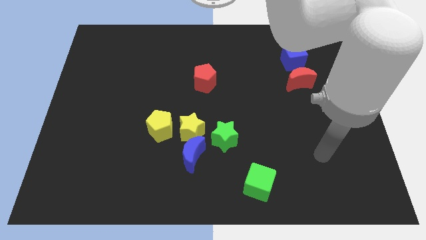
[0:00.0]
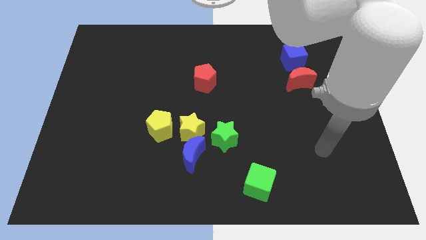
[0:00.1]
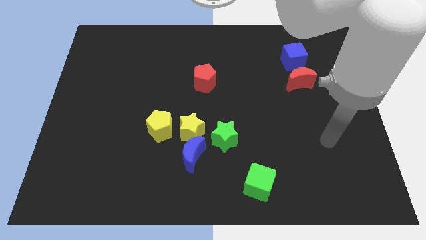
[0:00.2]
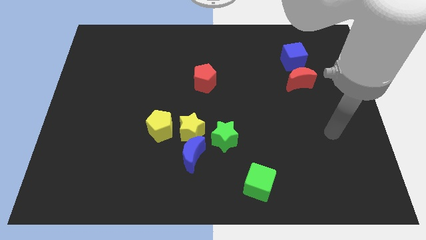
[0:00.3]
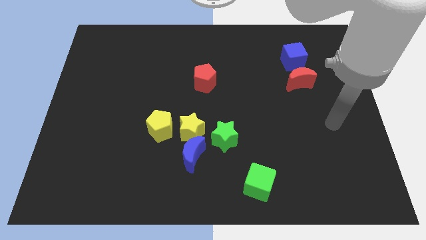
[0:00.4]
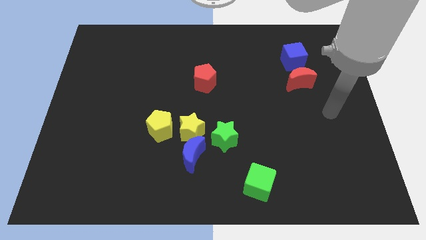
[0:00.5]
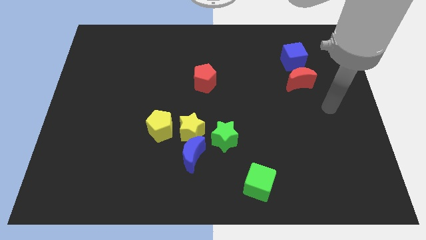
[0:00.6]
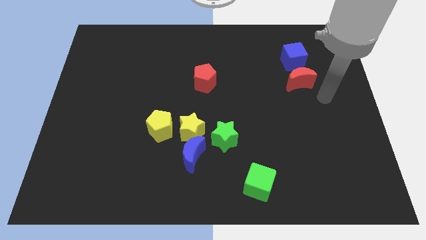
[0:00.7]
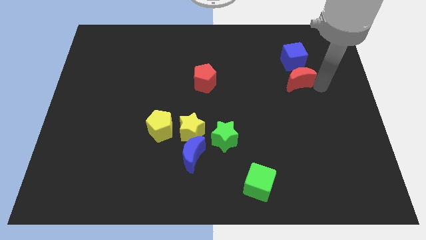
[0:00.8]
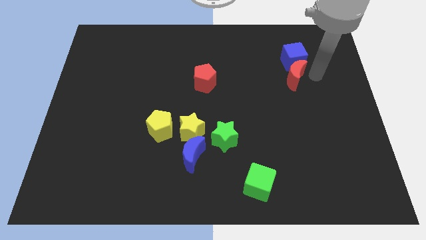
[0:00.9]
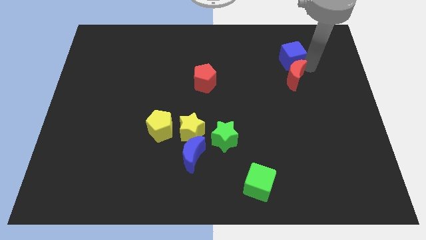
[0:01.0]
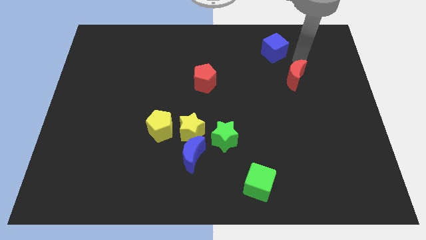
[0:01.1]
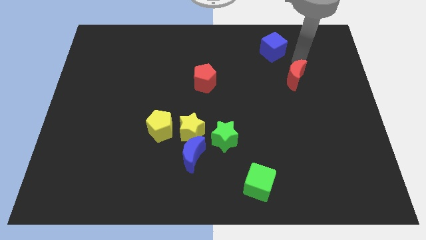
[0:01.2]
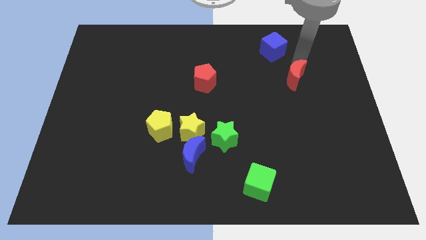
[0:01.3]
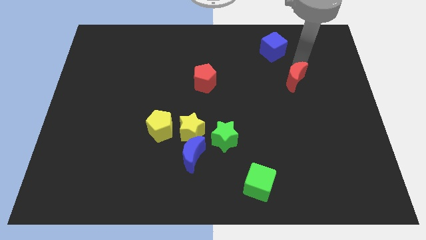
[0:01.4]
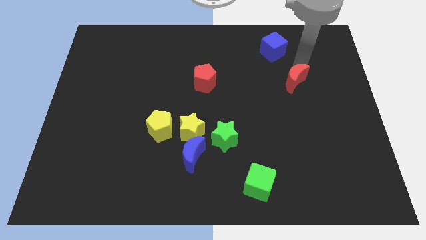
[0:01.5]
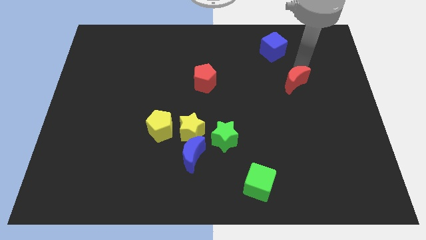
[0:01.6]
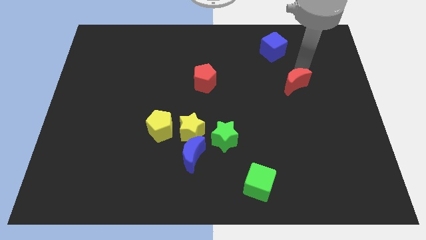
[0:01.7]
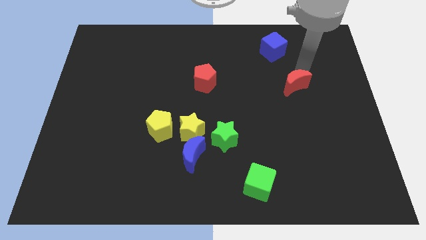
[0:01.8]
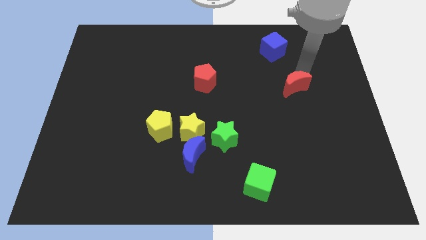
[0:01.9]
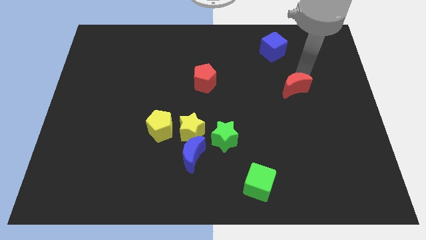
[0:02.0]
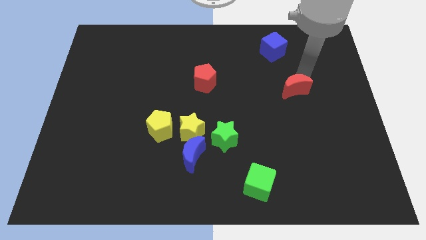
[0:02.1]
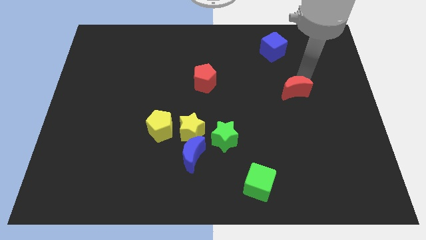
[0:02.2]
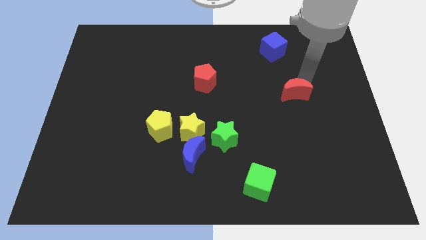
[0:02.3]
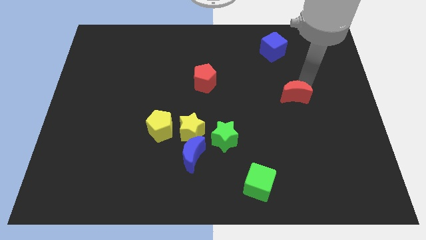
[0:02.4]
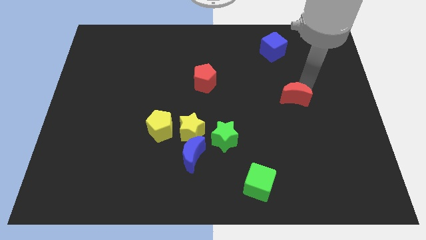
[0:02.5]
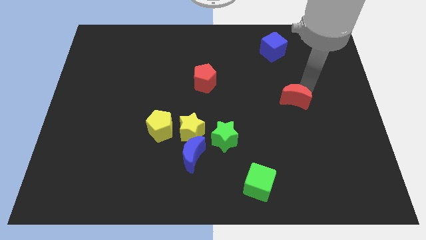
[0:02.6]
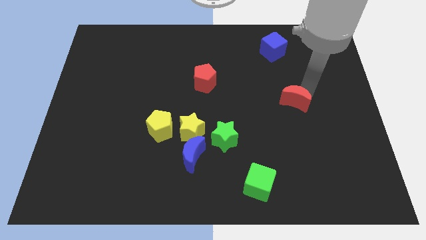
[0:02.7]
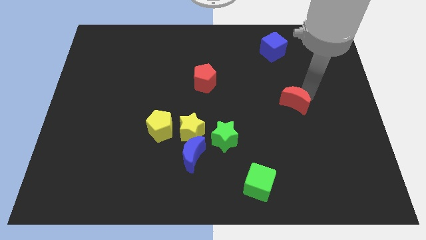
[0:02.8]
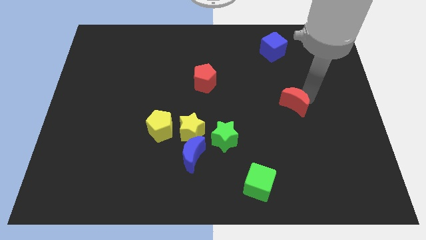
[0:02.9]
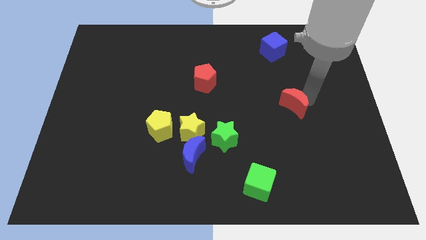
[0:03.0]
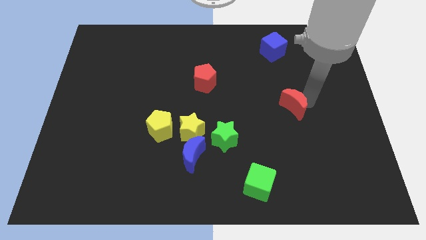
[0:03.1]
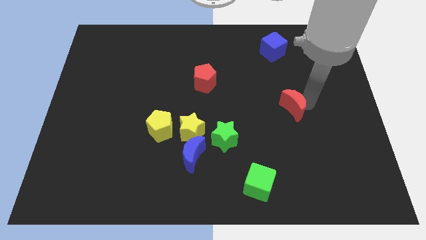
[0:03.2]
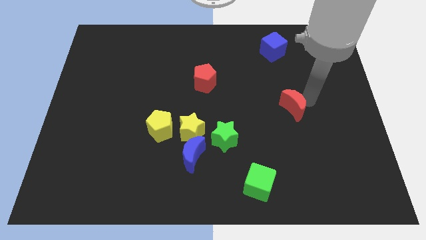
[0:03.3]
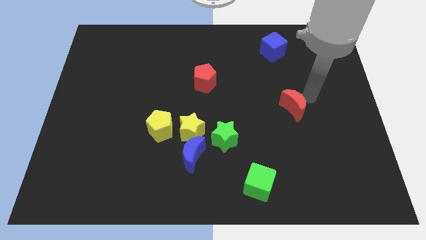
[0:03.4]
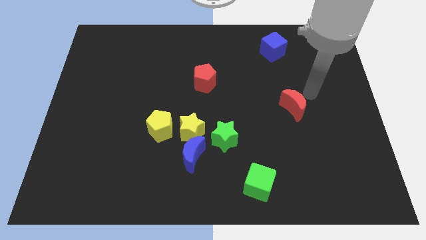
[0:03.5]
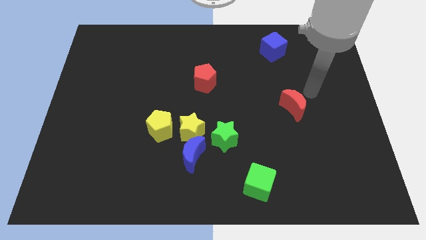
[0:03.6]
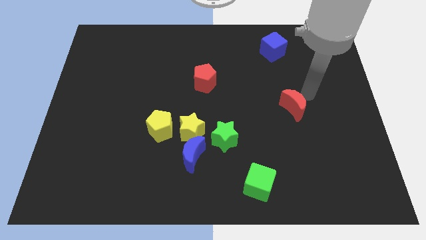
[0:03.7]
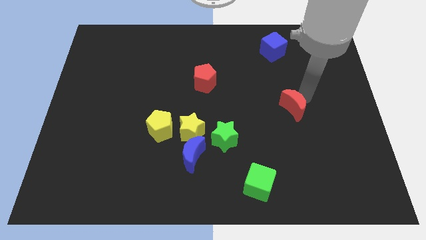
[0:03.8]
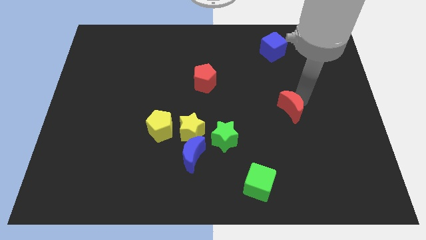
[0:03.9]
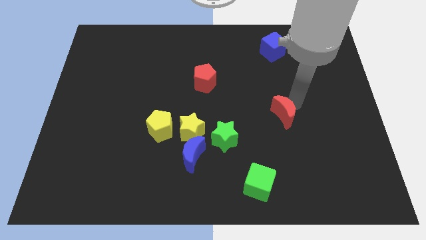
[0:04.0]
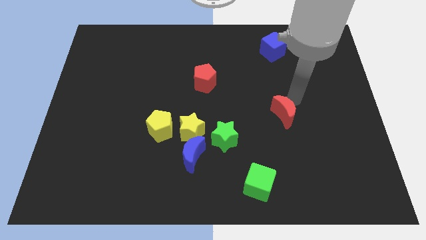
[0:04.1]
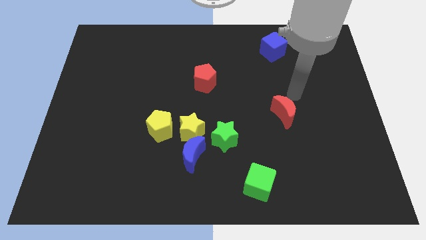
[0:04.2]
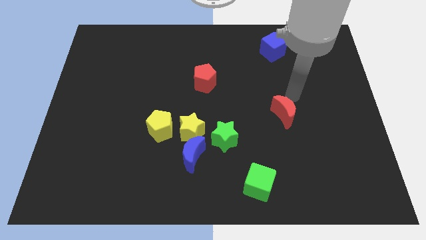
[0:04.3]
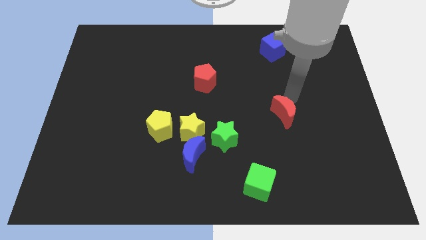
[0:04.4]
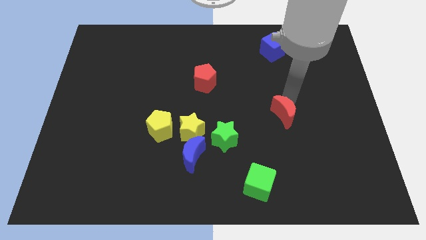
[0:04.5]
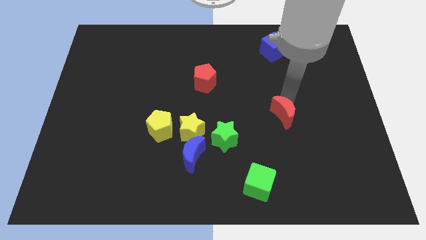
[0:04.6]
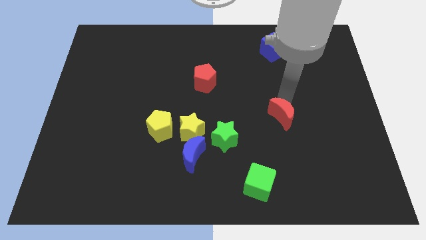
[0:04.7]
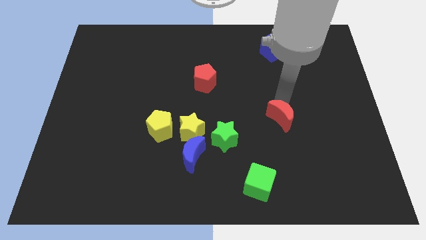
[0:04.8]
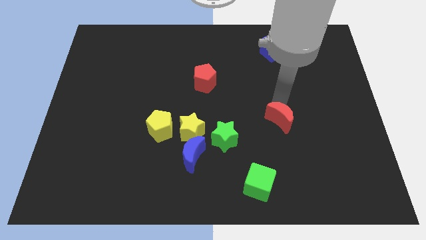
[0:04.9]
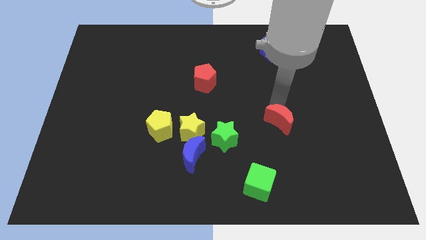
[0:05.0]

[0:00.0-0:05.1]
push the red moon right of the green star

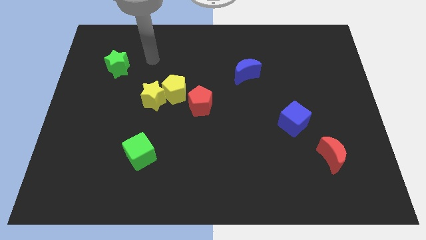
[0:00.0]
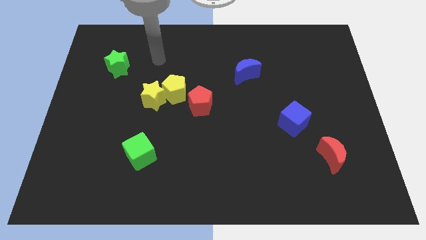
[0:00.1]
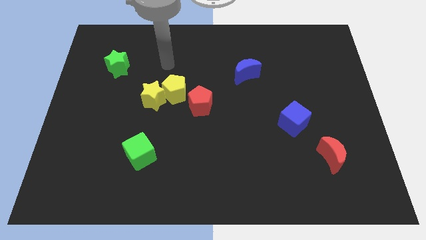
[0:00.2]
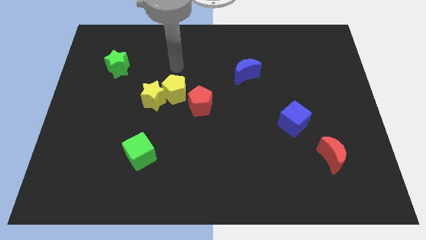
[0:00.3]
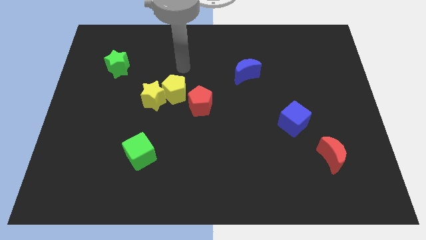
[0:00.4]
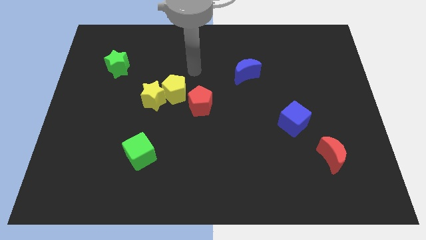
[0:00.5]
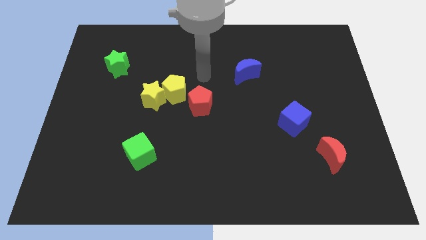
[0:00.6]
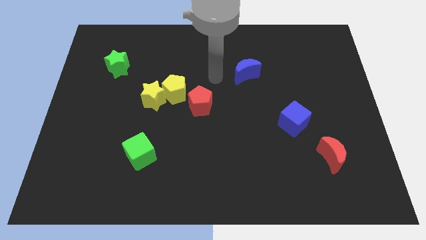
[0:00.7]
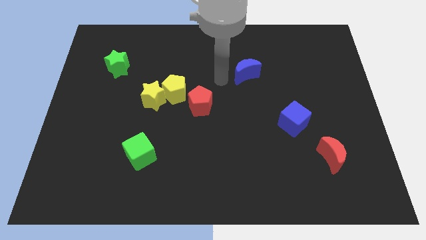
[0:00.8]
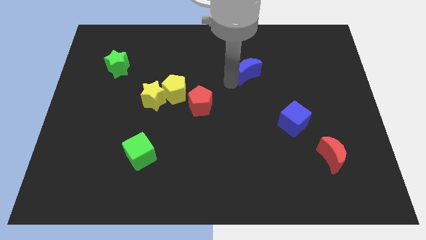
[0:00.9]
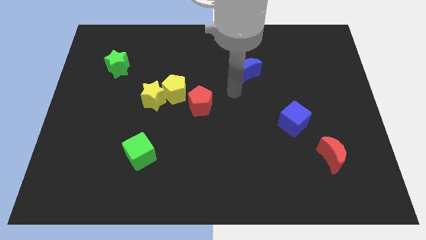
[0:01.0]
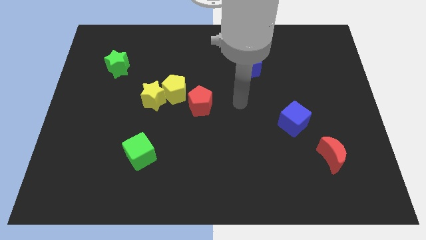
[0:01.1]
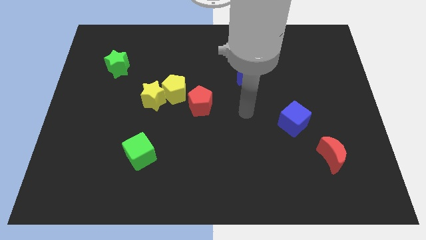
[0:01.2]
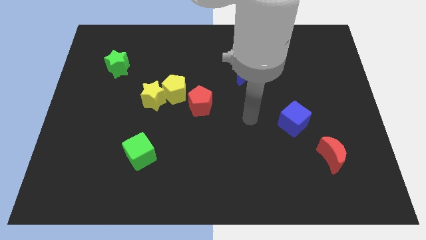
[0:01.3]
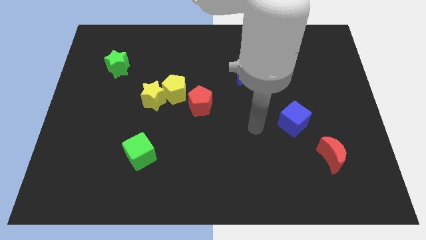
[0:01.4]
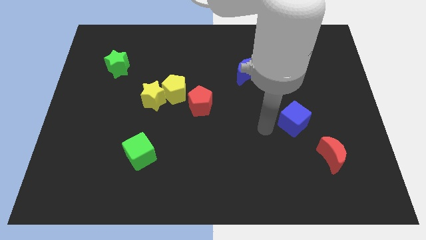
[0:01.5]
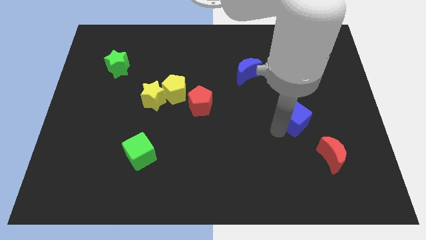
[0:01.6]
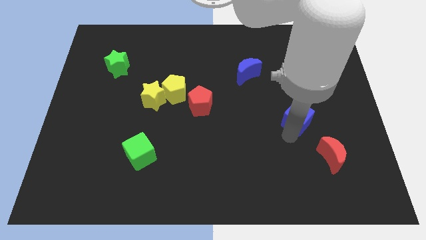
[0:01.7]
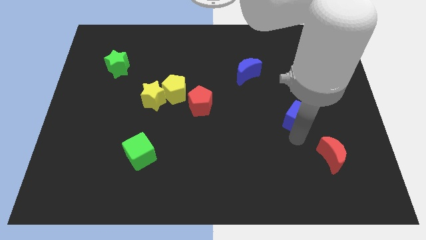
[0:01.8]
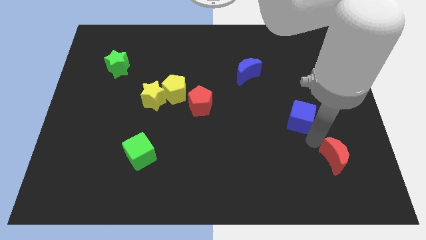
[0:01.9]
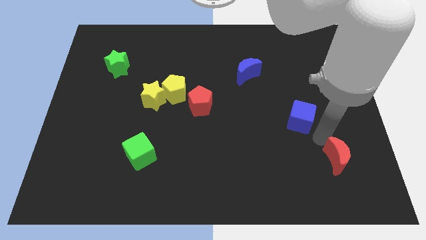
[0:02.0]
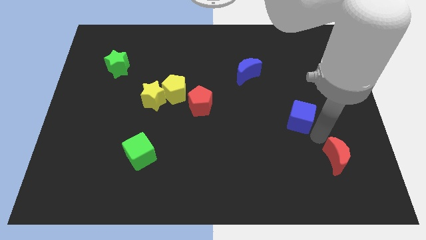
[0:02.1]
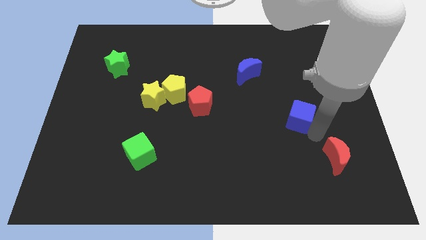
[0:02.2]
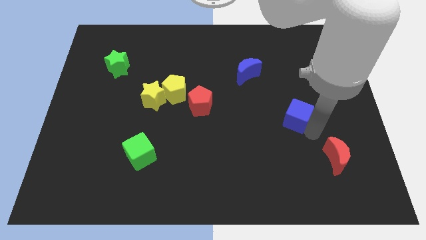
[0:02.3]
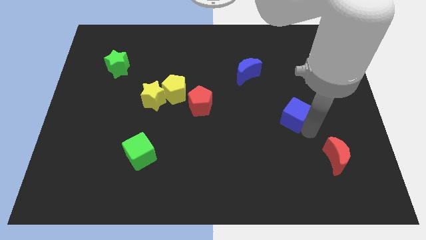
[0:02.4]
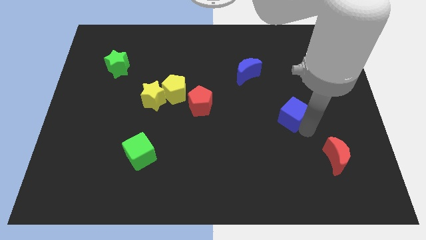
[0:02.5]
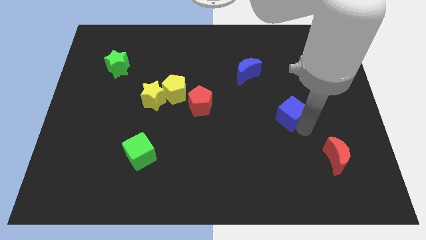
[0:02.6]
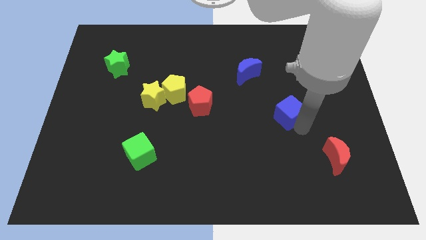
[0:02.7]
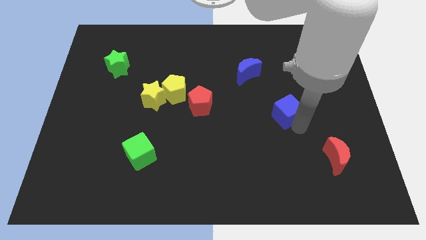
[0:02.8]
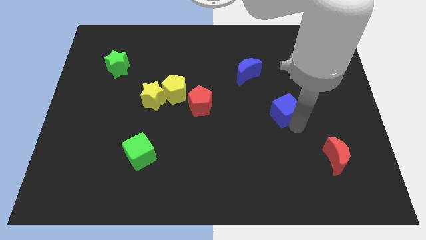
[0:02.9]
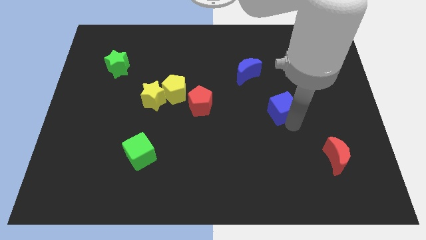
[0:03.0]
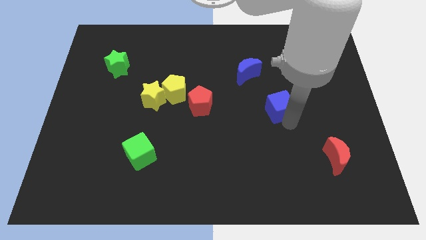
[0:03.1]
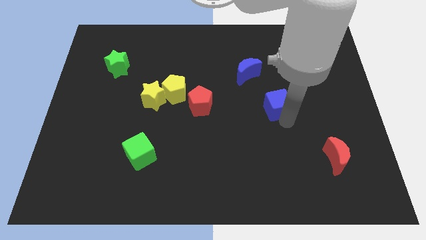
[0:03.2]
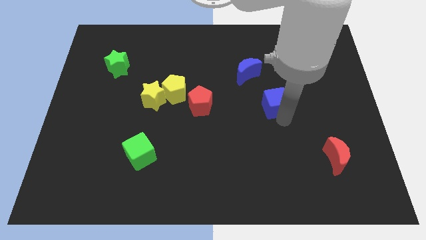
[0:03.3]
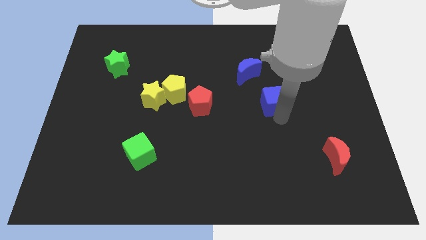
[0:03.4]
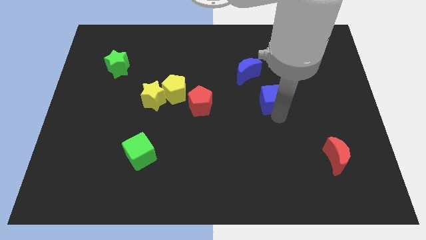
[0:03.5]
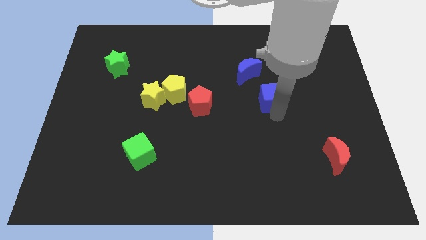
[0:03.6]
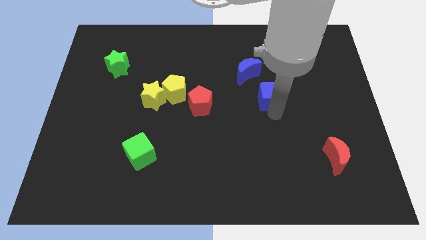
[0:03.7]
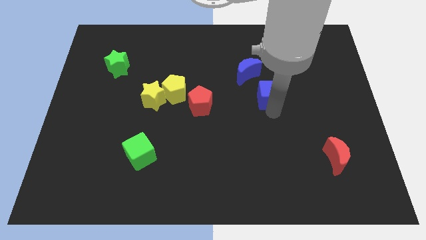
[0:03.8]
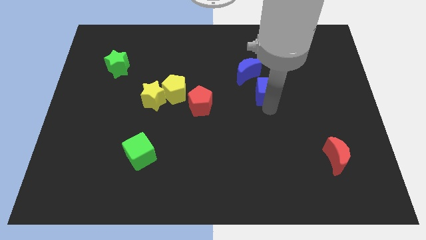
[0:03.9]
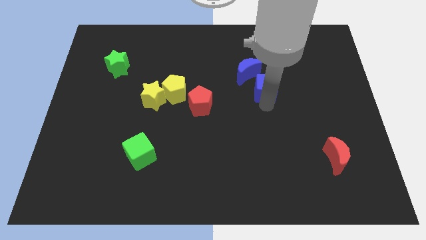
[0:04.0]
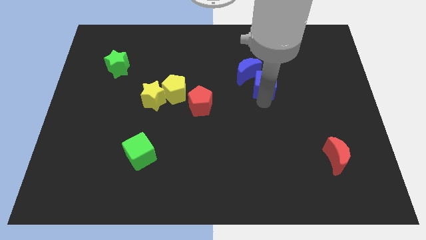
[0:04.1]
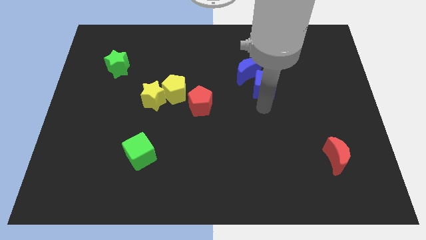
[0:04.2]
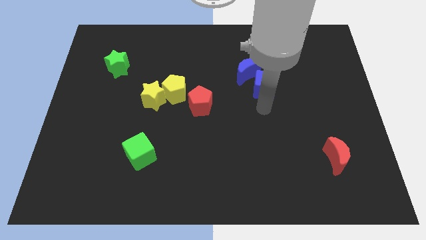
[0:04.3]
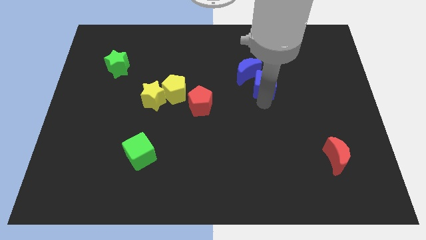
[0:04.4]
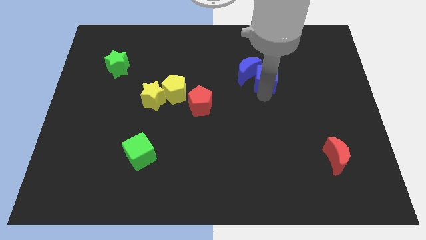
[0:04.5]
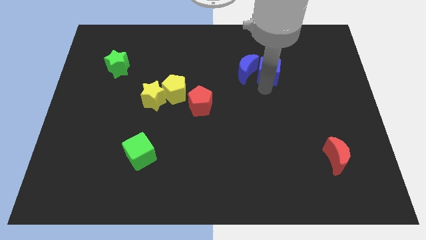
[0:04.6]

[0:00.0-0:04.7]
move the blue cube to the top right of the blue moon
